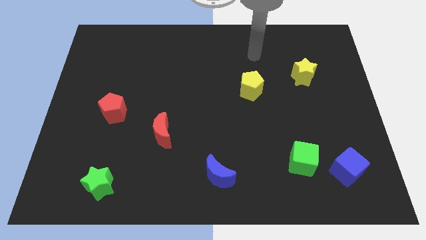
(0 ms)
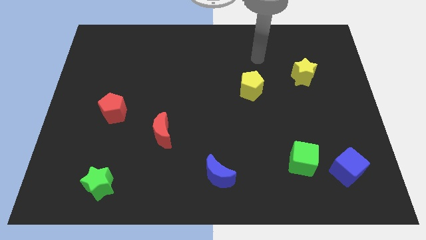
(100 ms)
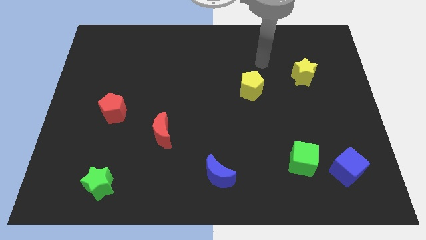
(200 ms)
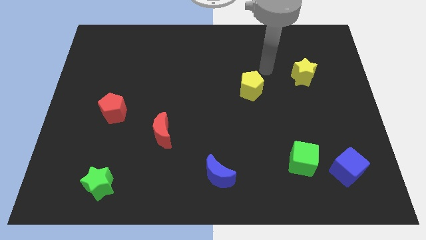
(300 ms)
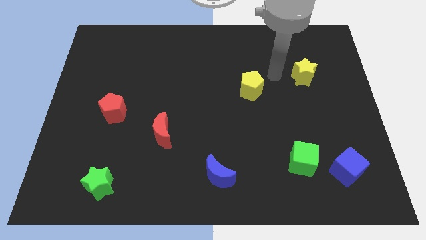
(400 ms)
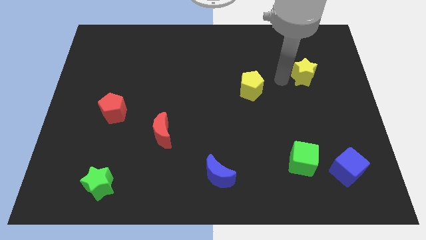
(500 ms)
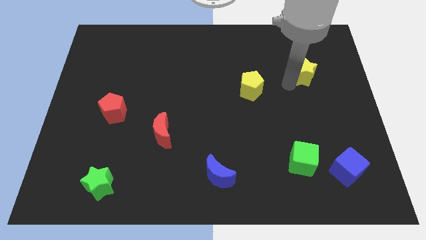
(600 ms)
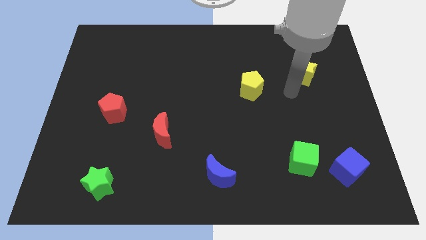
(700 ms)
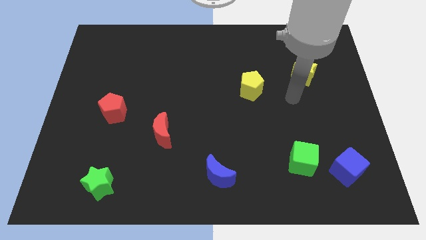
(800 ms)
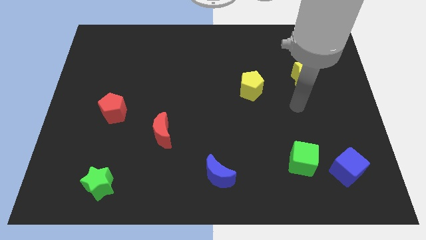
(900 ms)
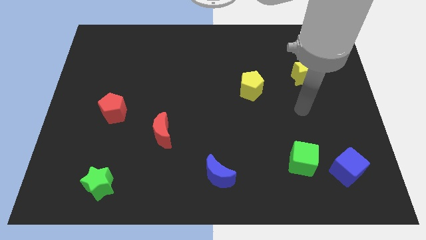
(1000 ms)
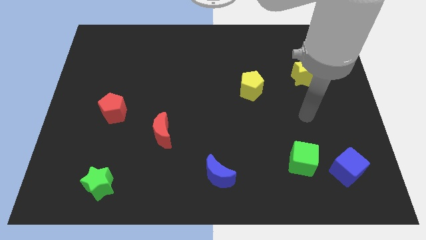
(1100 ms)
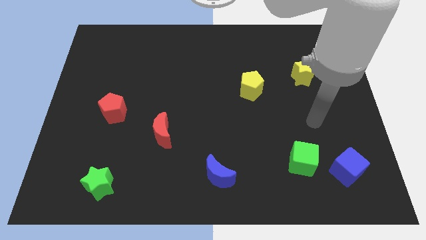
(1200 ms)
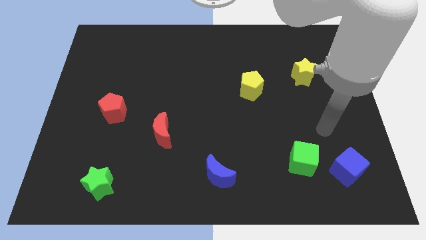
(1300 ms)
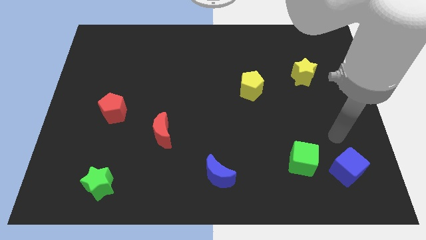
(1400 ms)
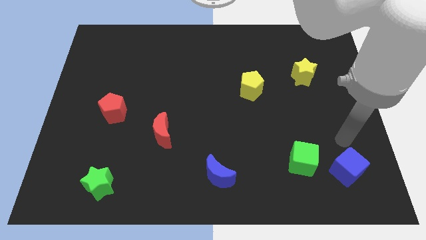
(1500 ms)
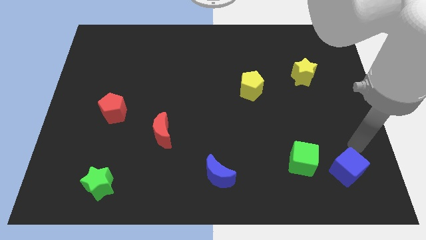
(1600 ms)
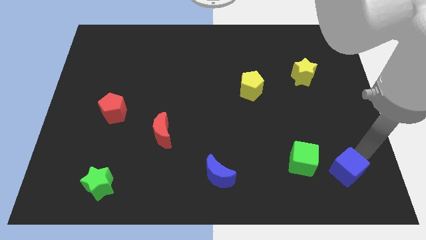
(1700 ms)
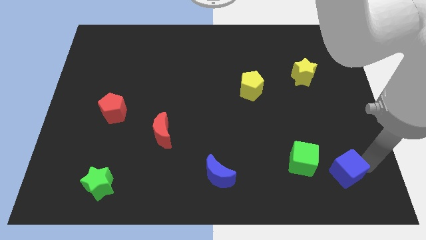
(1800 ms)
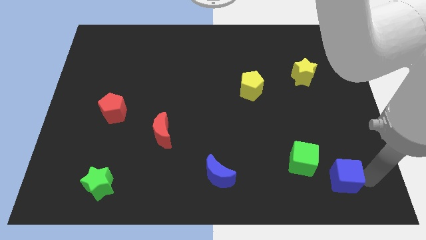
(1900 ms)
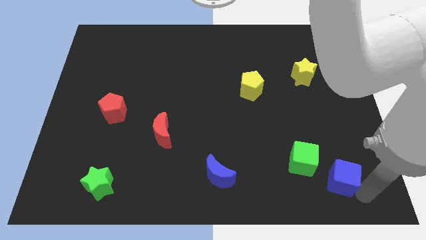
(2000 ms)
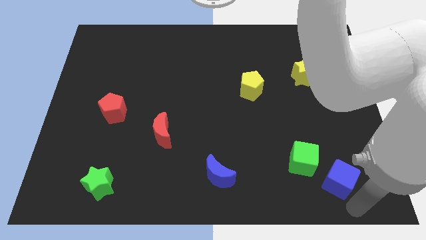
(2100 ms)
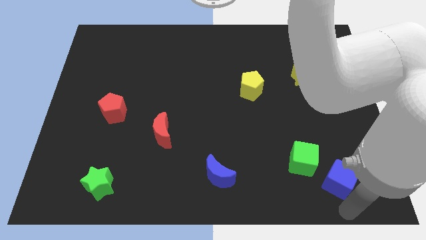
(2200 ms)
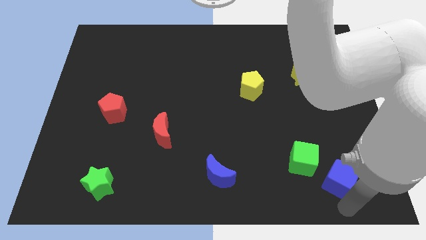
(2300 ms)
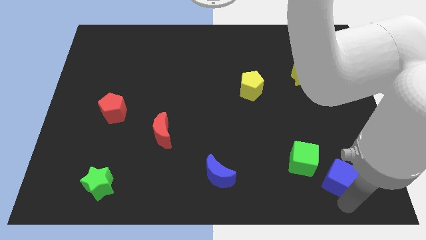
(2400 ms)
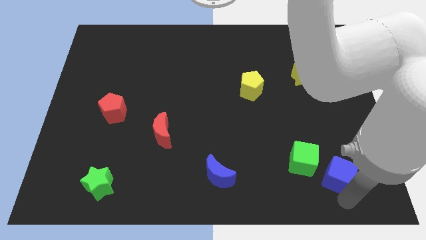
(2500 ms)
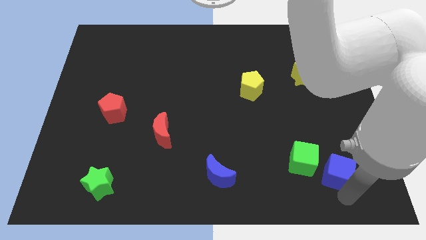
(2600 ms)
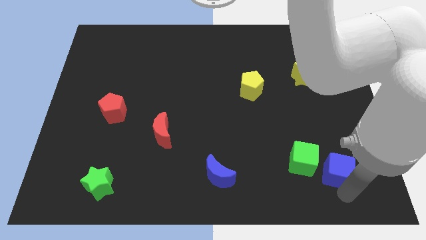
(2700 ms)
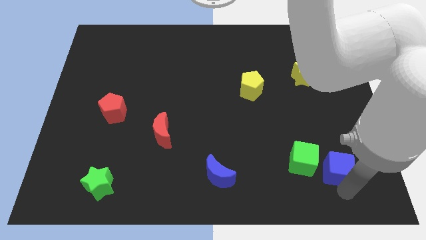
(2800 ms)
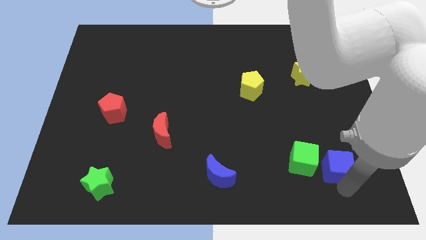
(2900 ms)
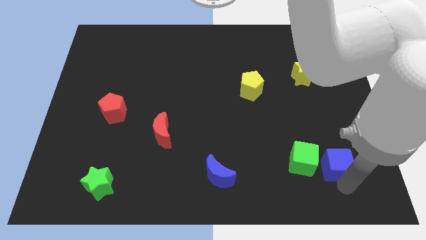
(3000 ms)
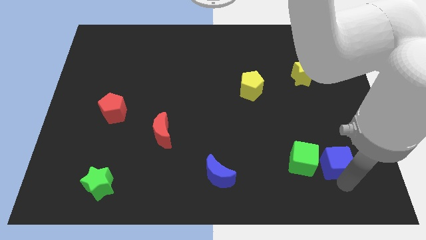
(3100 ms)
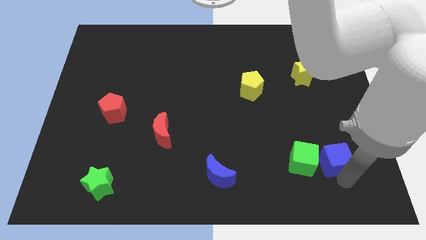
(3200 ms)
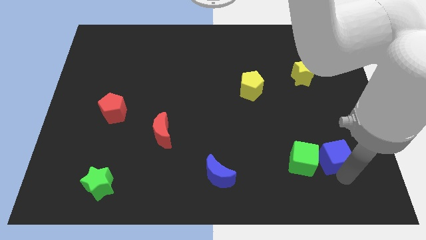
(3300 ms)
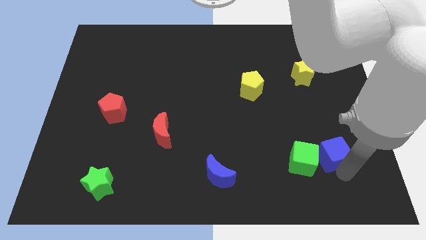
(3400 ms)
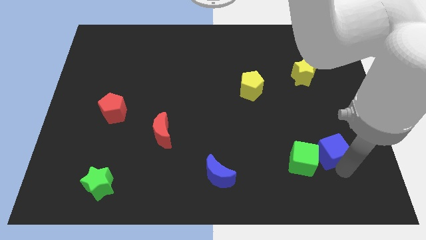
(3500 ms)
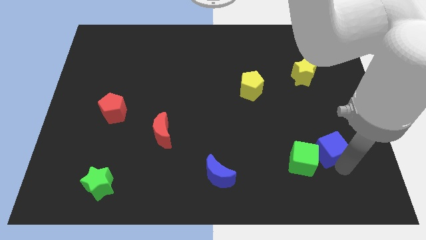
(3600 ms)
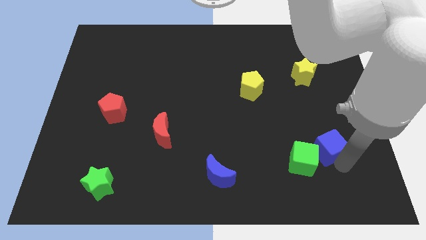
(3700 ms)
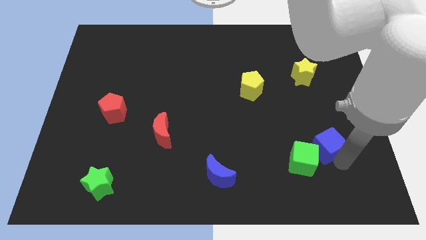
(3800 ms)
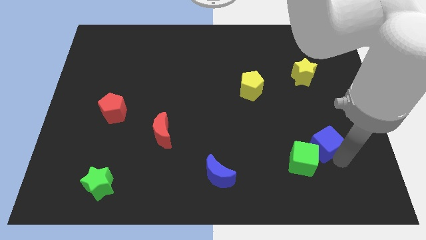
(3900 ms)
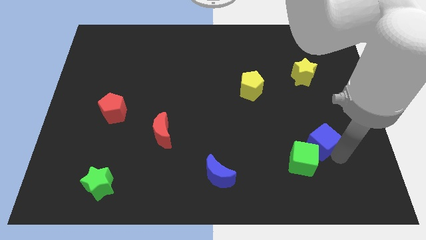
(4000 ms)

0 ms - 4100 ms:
put the blue cube to the top side of the green cube

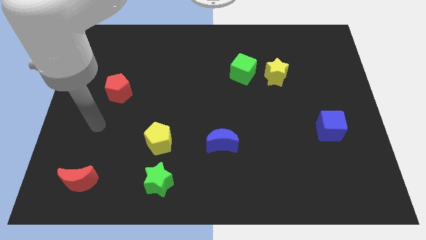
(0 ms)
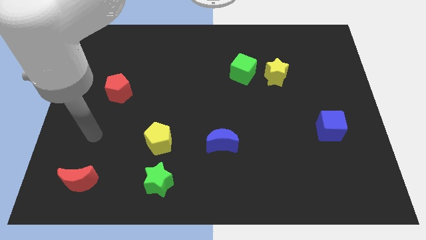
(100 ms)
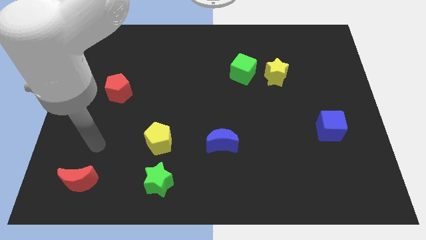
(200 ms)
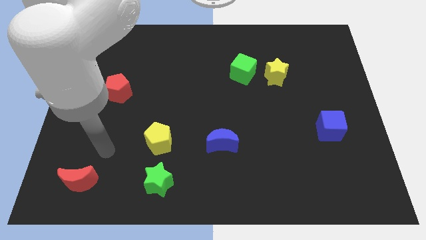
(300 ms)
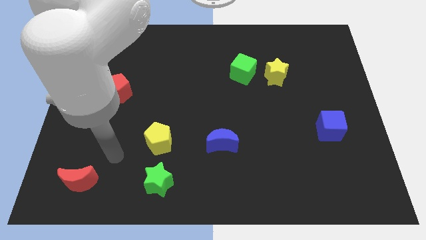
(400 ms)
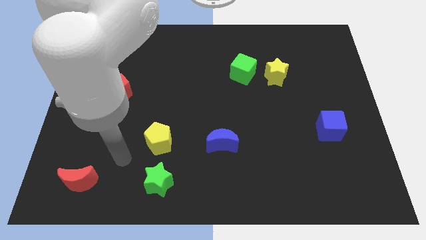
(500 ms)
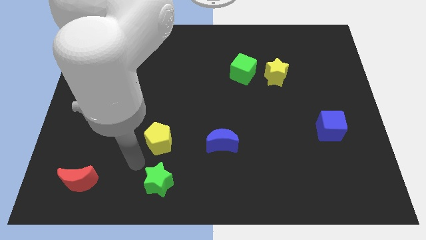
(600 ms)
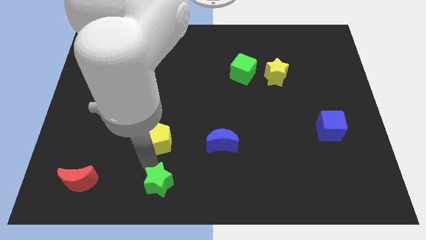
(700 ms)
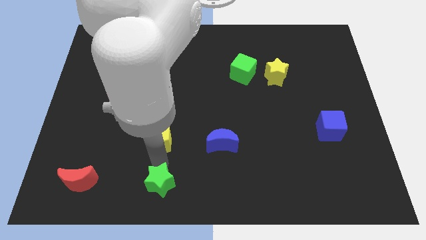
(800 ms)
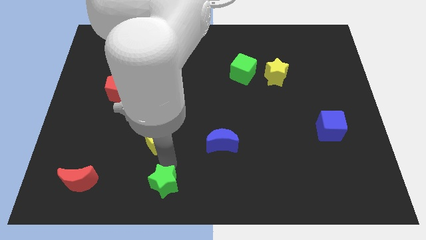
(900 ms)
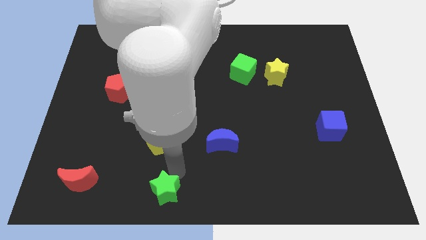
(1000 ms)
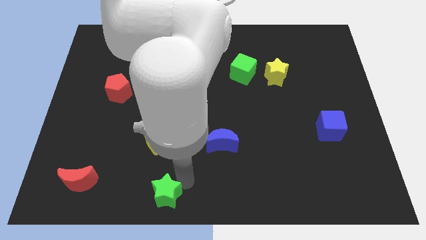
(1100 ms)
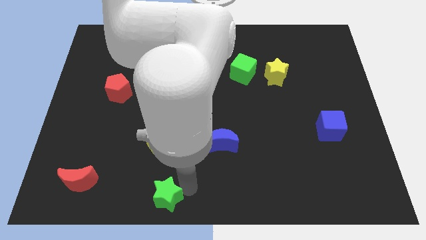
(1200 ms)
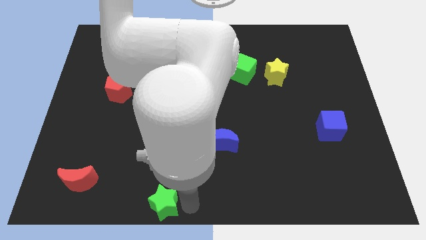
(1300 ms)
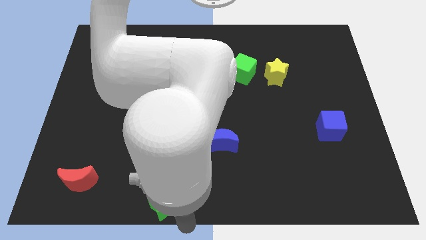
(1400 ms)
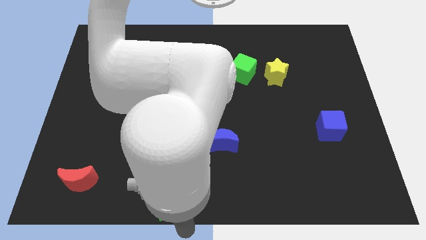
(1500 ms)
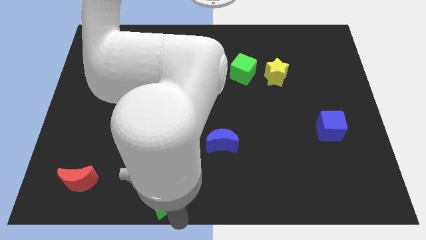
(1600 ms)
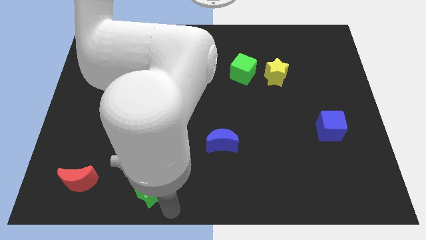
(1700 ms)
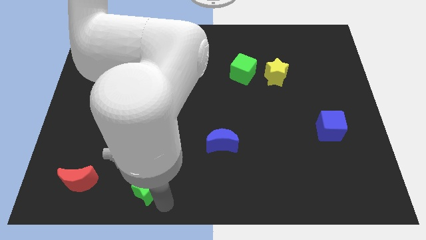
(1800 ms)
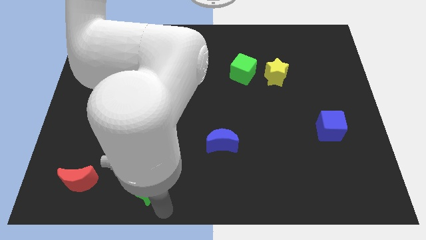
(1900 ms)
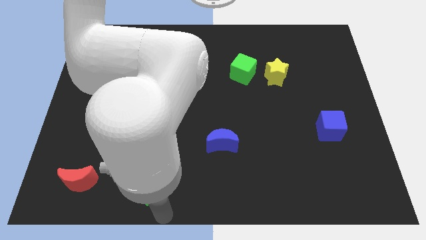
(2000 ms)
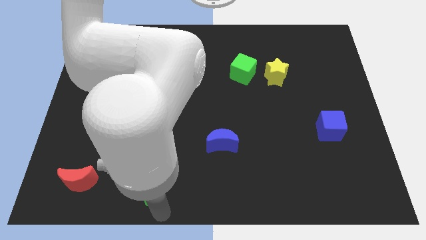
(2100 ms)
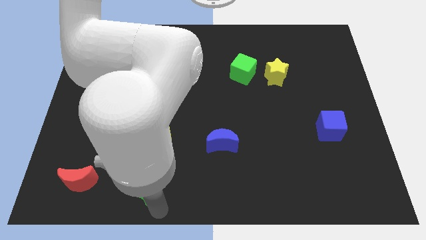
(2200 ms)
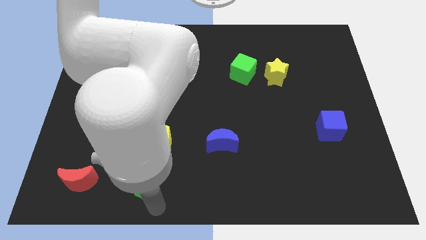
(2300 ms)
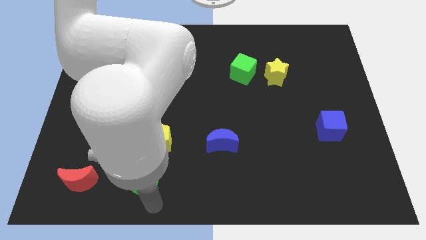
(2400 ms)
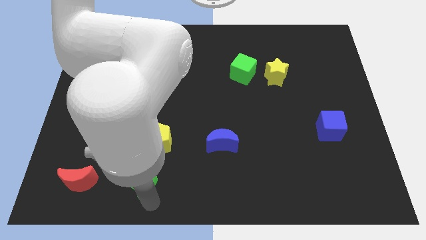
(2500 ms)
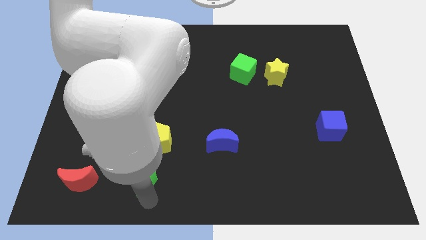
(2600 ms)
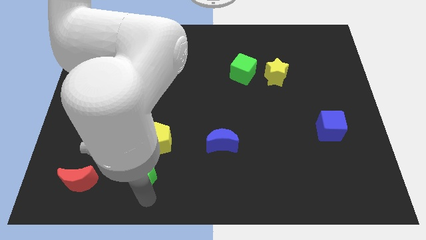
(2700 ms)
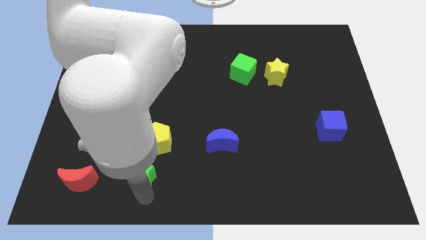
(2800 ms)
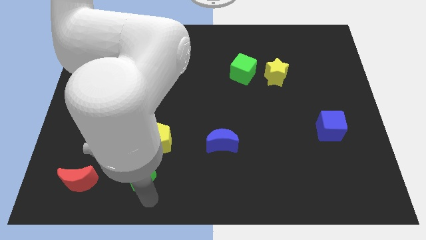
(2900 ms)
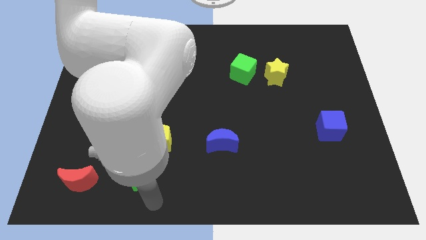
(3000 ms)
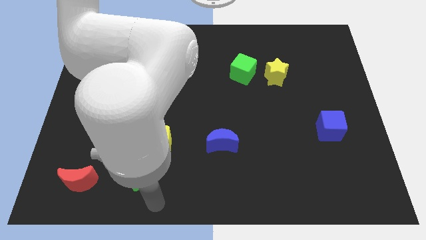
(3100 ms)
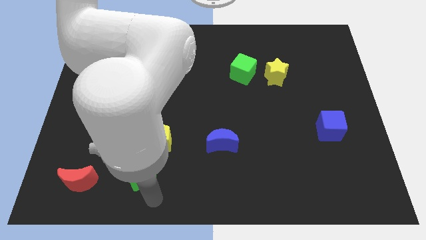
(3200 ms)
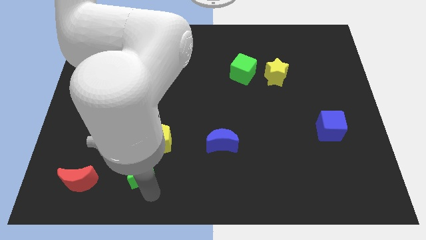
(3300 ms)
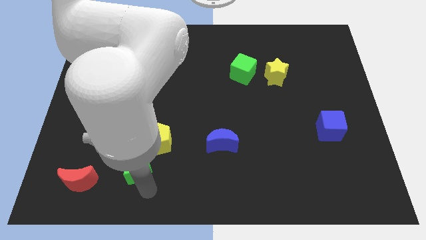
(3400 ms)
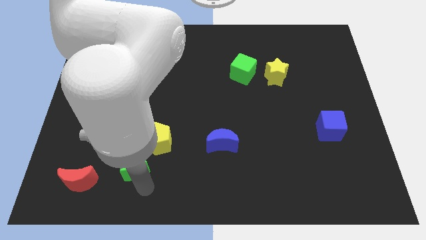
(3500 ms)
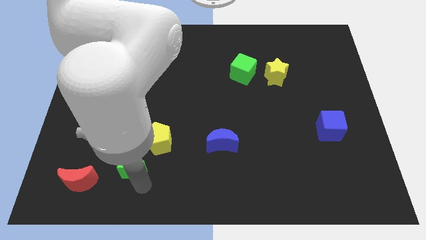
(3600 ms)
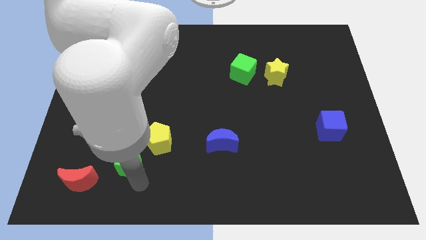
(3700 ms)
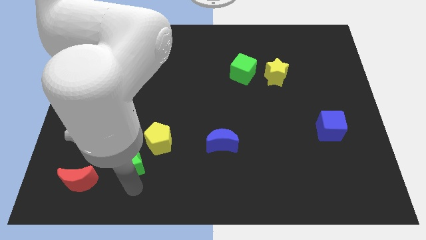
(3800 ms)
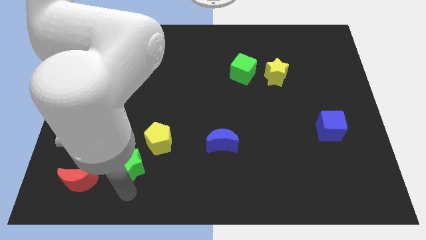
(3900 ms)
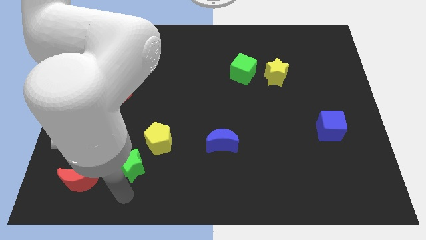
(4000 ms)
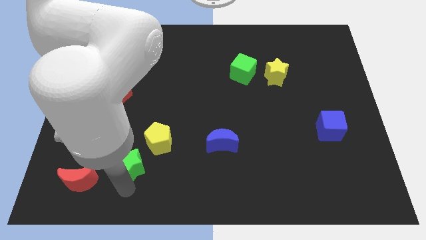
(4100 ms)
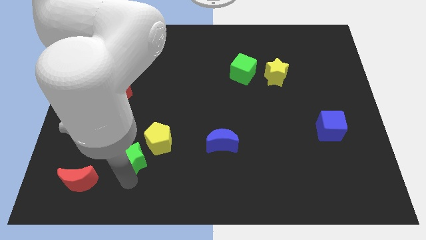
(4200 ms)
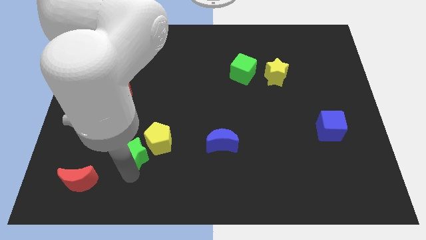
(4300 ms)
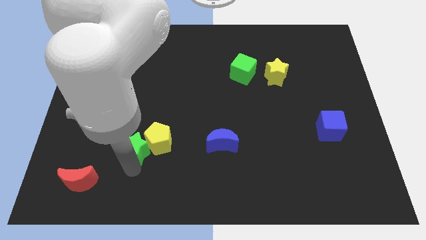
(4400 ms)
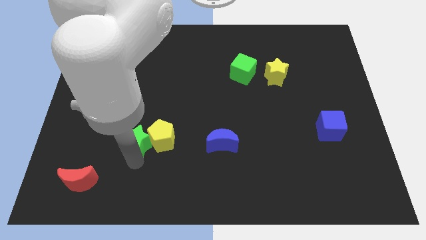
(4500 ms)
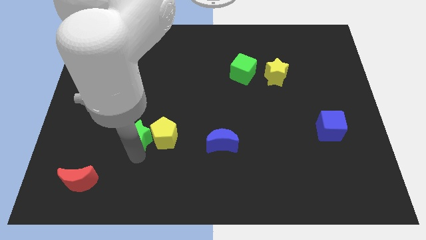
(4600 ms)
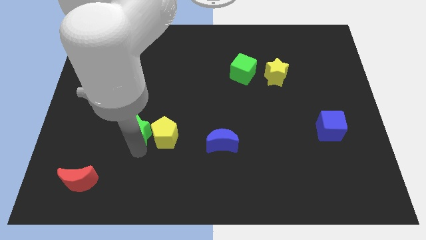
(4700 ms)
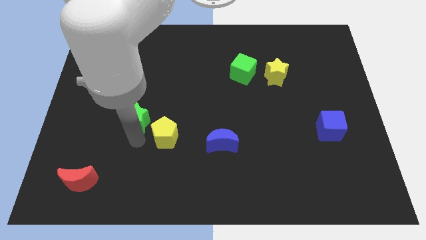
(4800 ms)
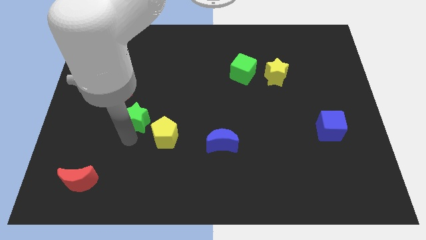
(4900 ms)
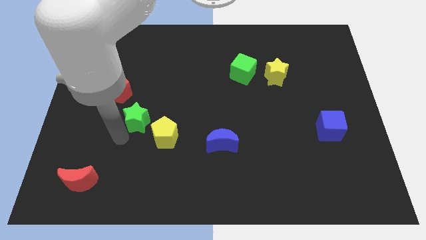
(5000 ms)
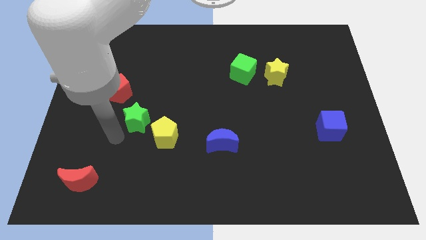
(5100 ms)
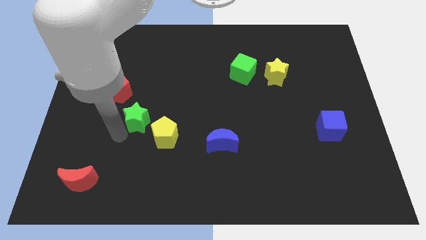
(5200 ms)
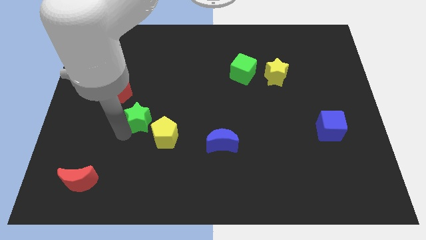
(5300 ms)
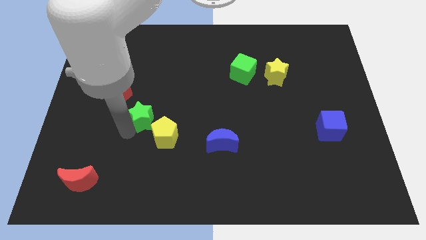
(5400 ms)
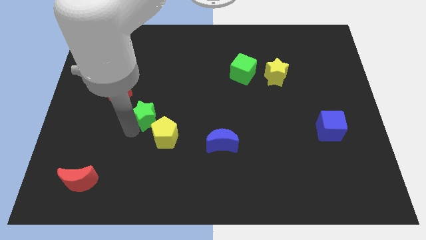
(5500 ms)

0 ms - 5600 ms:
move the green star to the top side of the yellow pentagon
